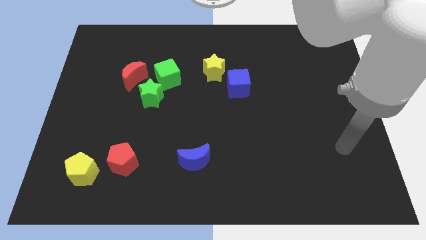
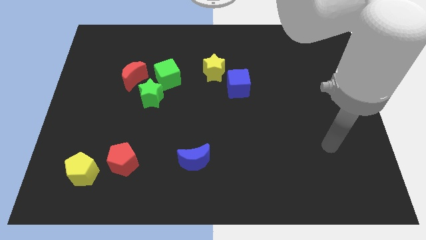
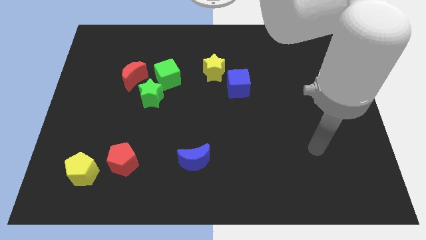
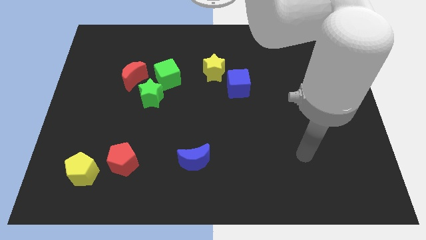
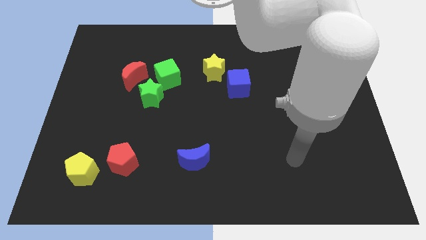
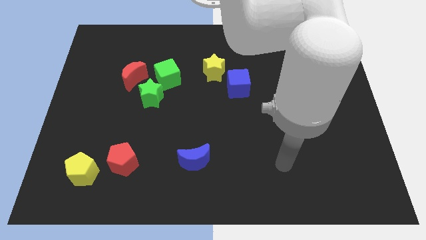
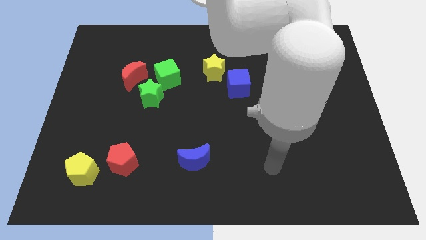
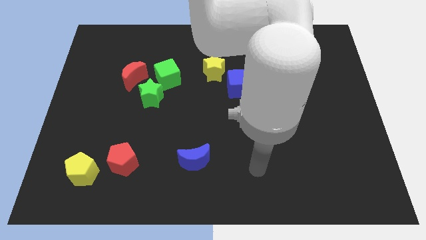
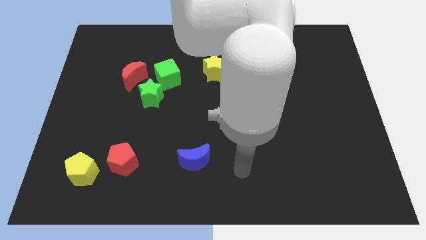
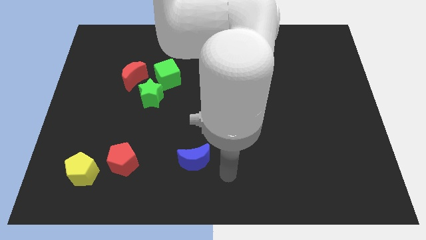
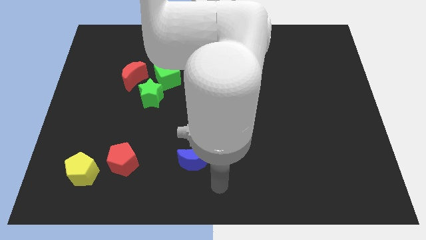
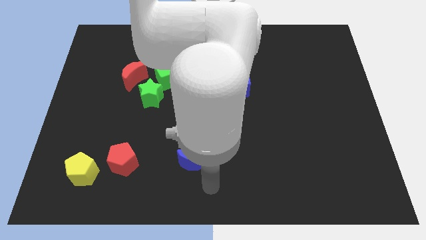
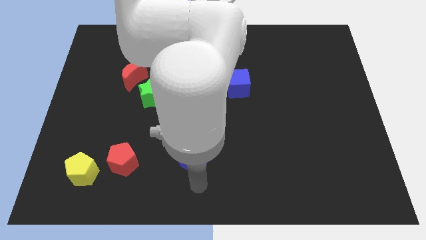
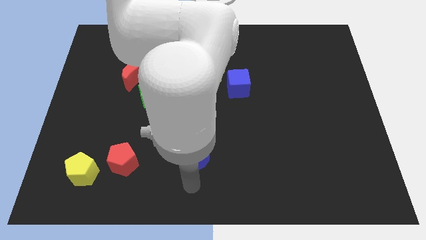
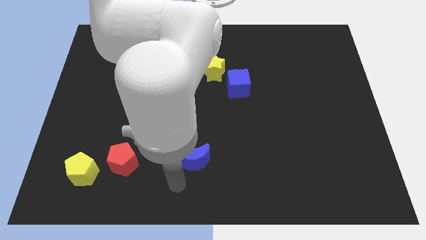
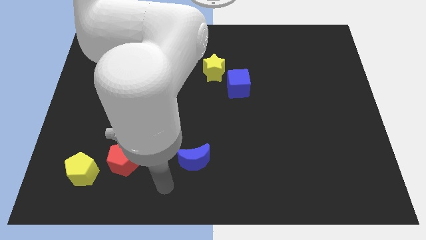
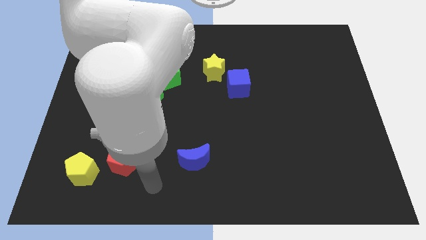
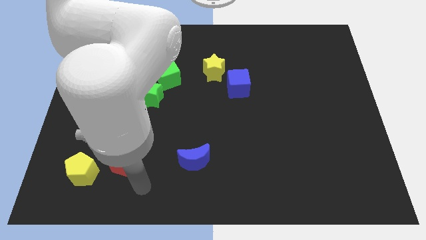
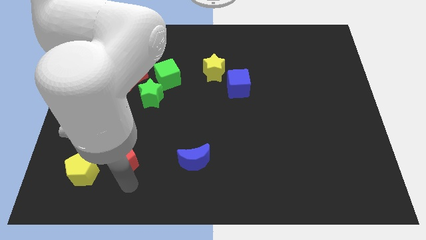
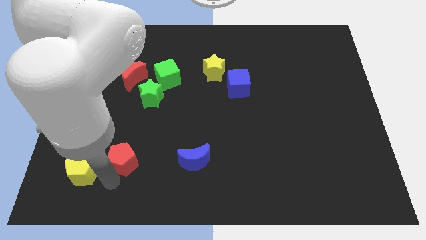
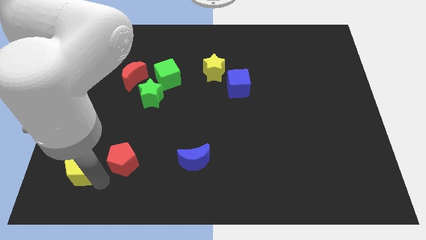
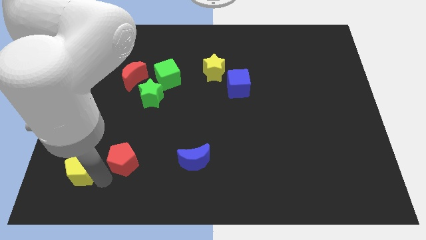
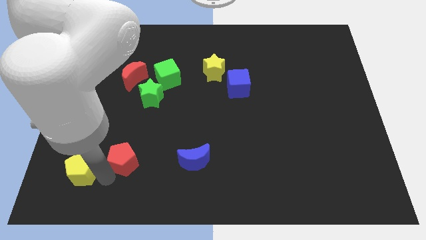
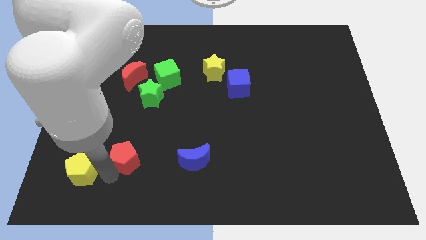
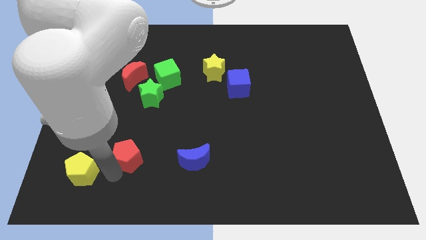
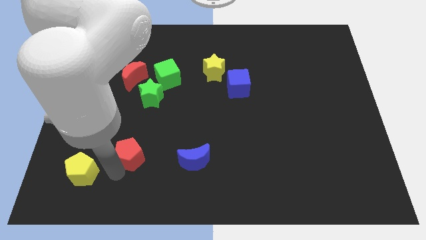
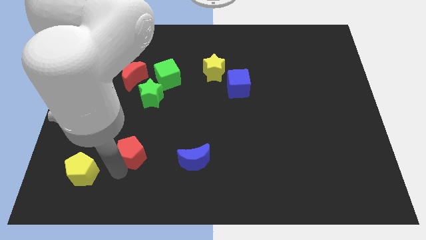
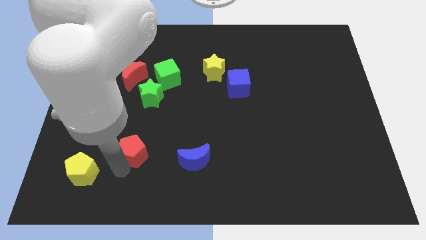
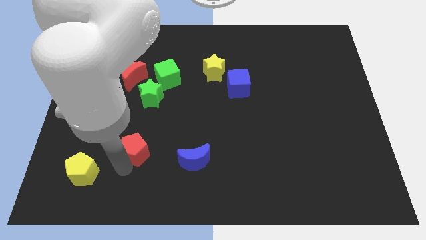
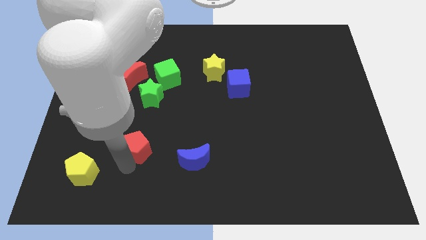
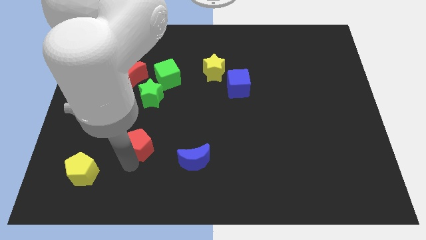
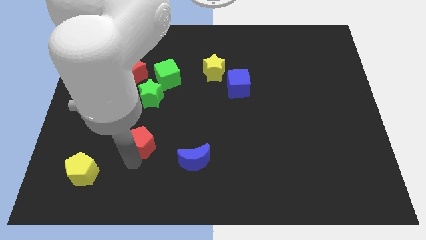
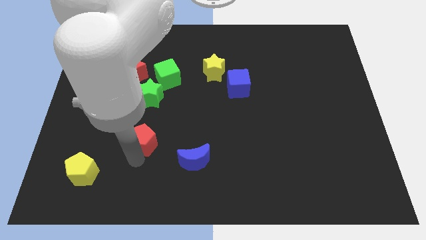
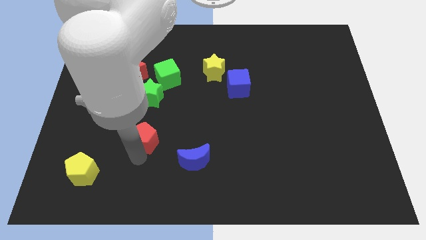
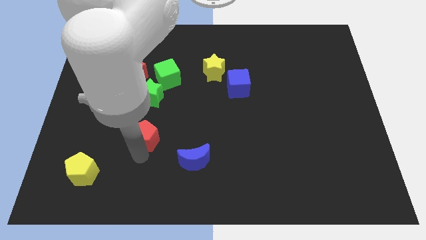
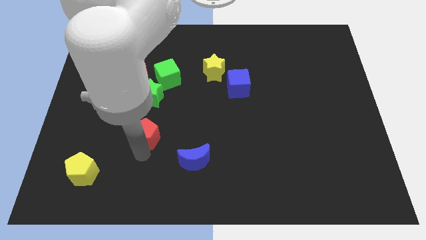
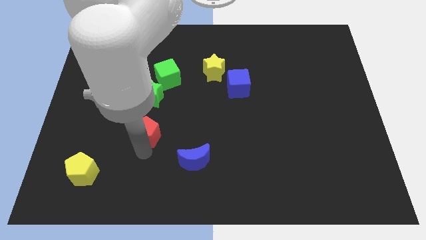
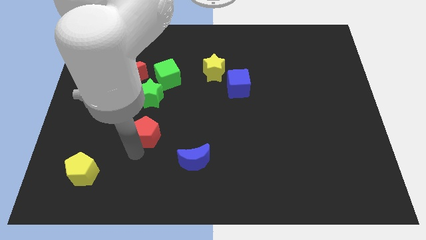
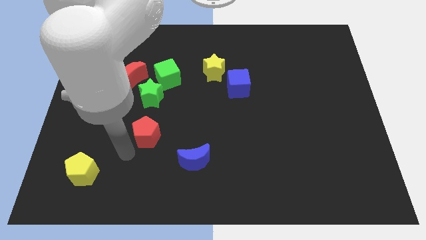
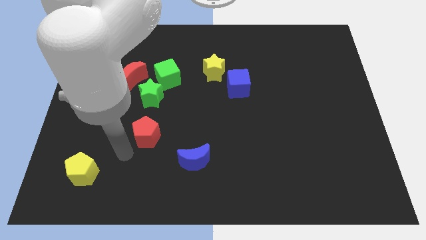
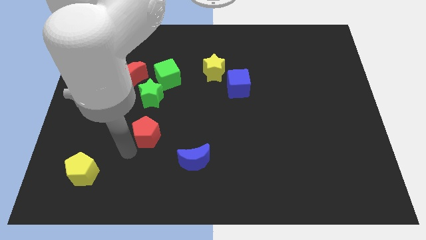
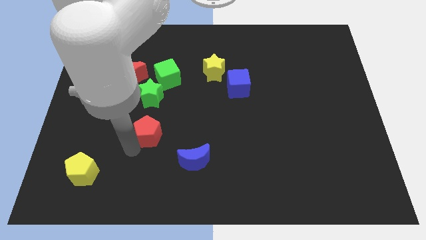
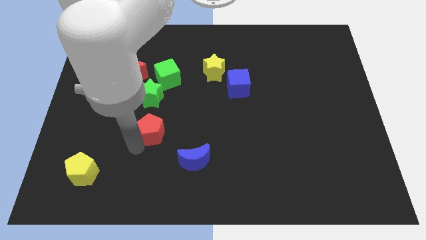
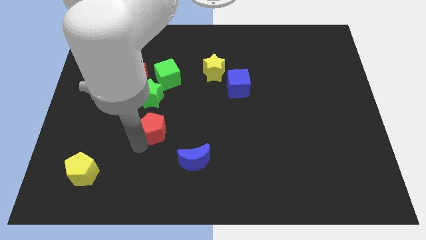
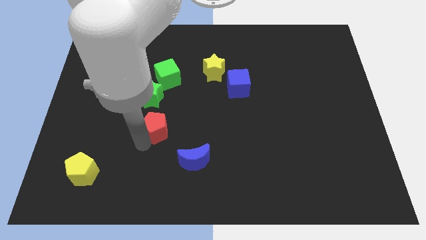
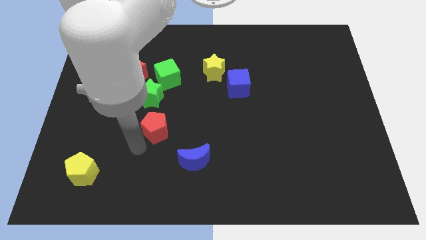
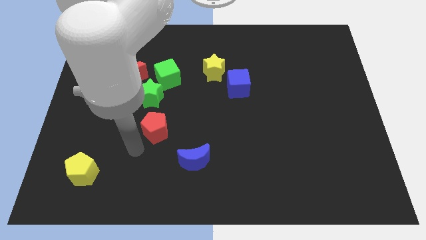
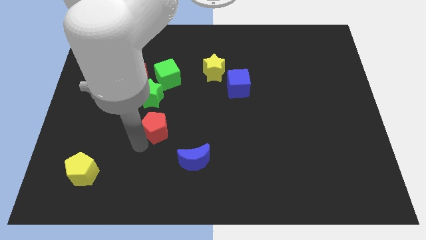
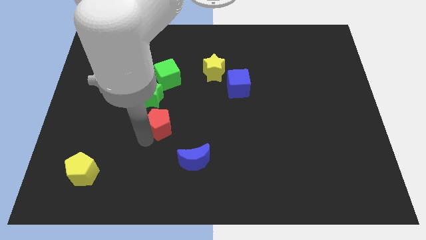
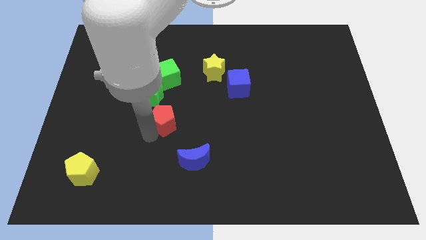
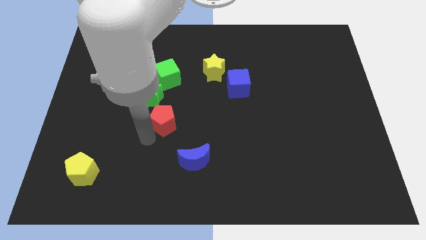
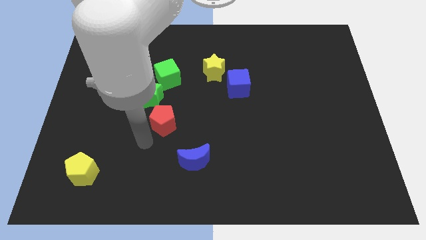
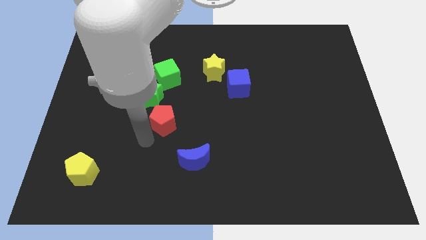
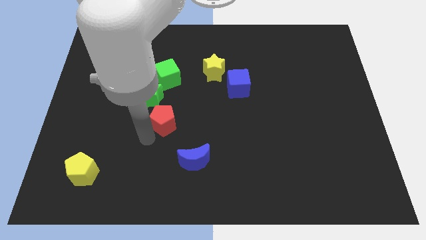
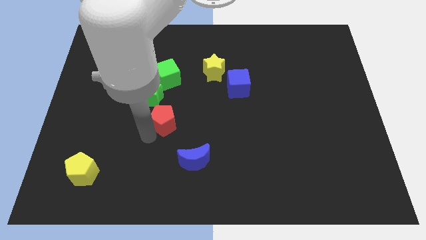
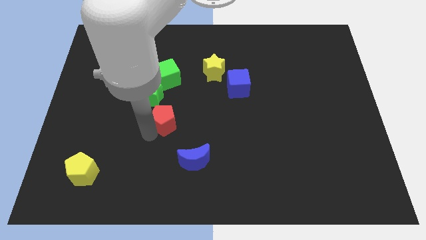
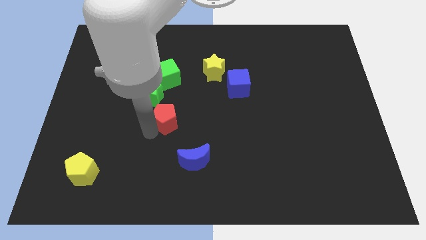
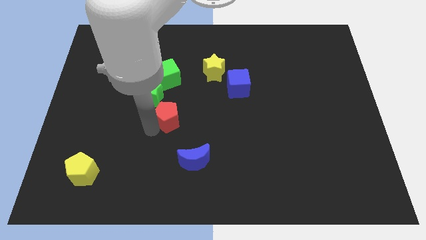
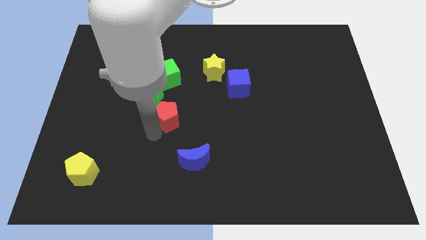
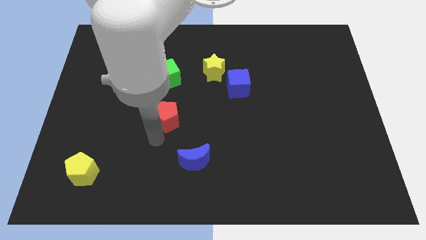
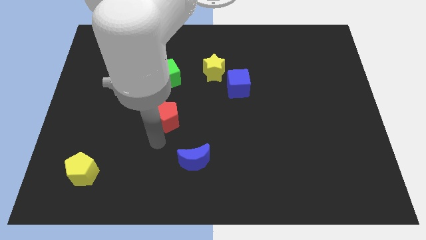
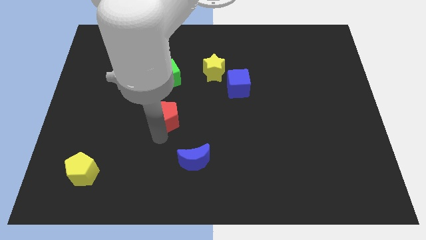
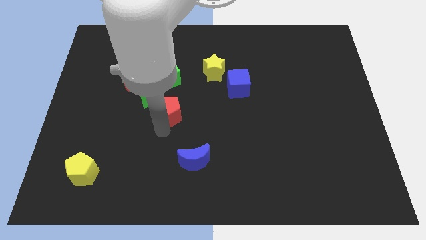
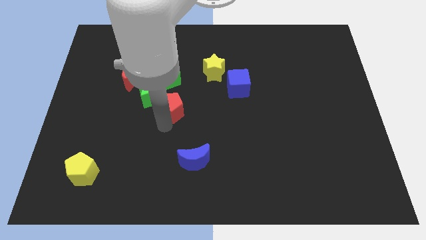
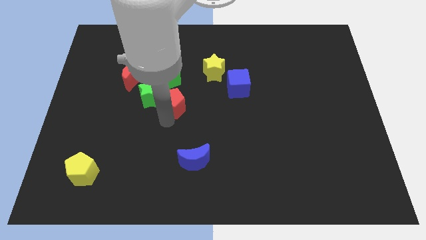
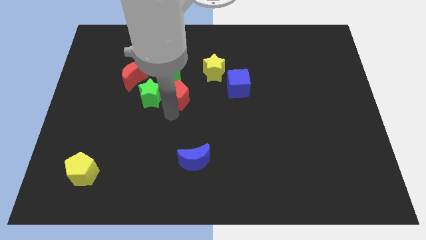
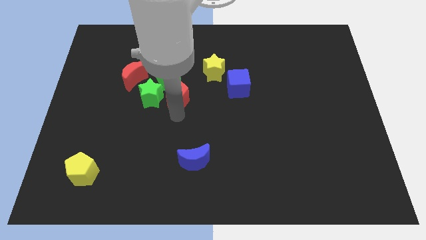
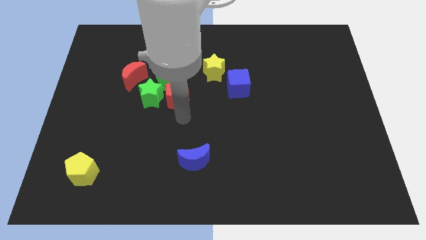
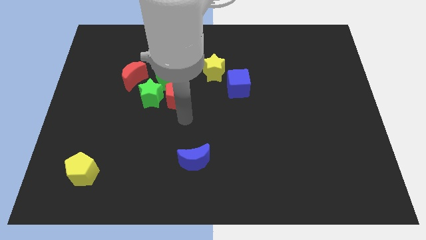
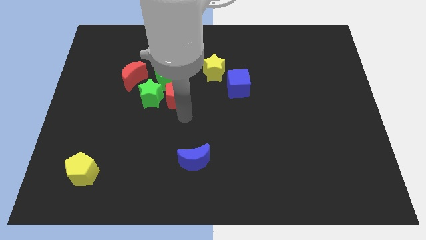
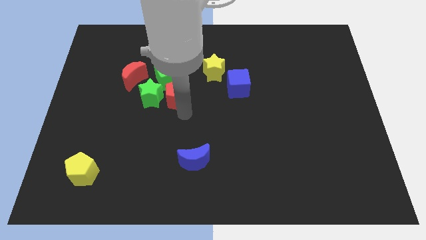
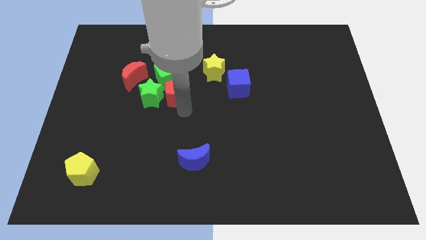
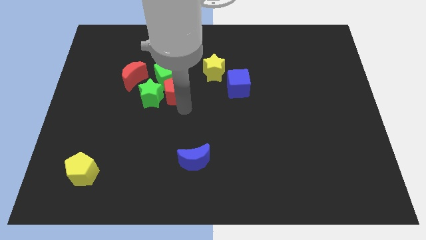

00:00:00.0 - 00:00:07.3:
move the red pentagon towards the green cube

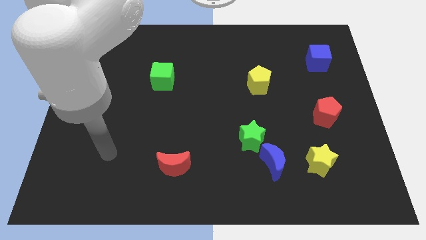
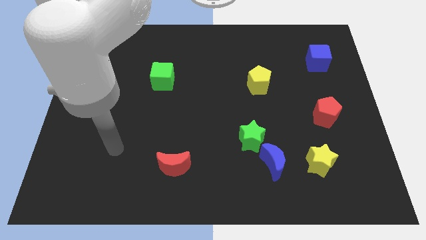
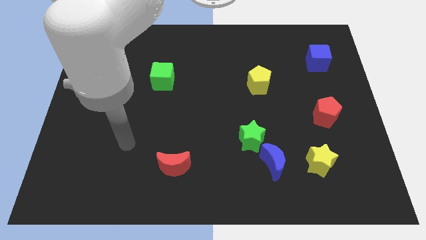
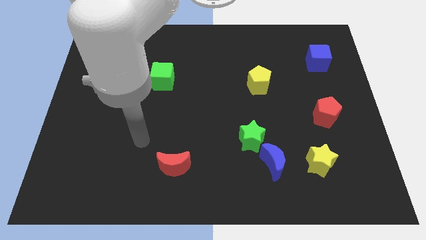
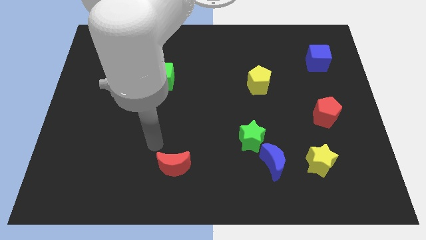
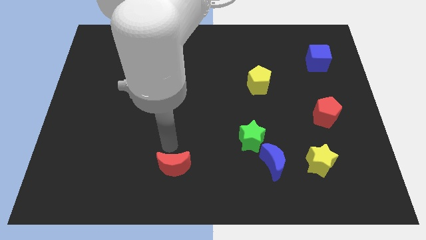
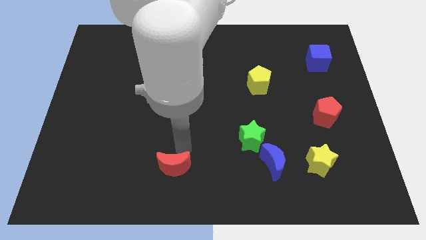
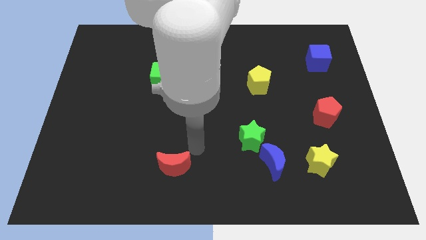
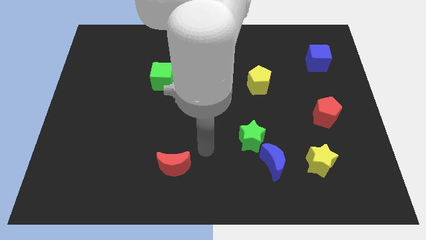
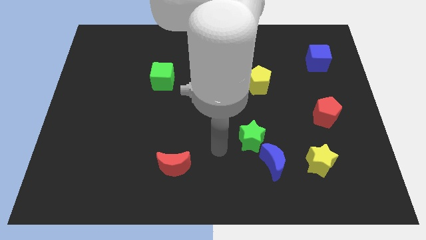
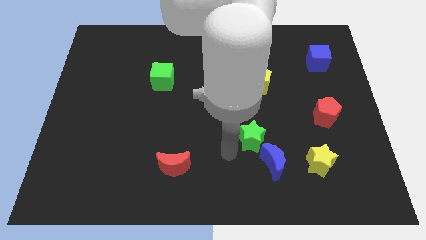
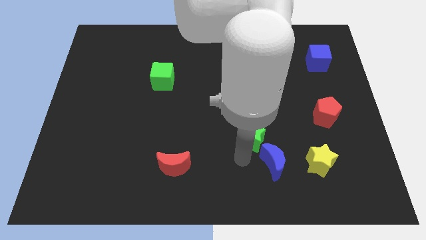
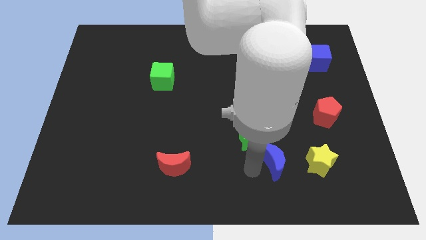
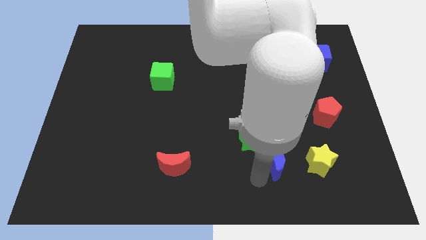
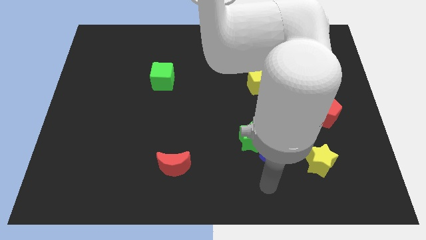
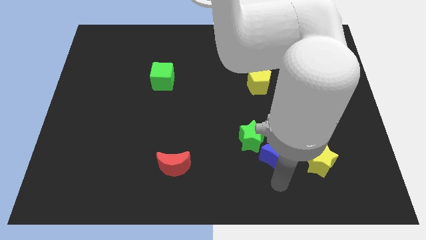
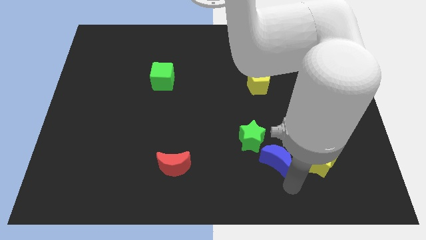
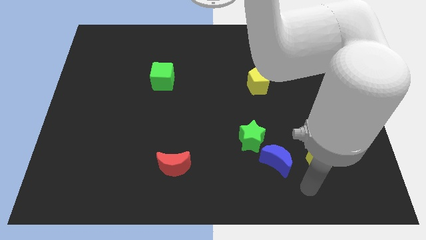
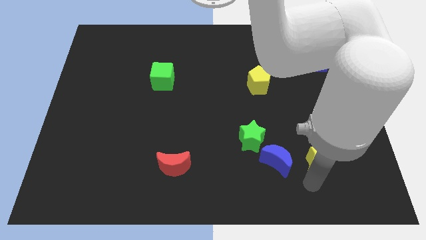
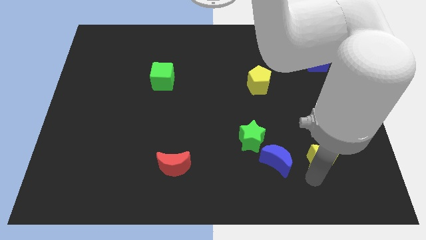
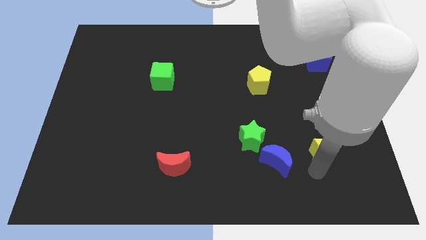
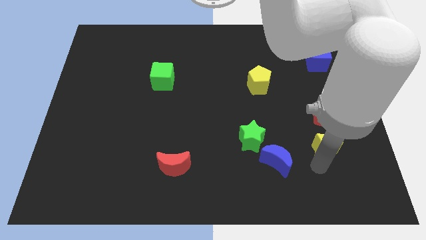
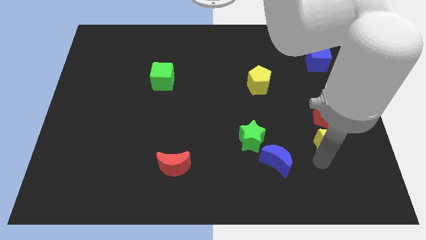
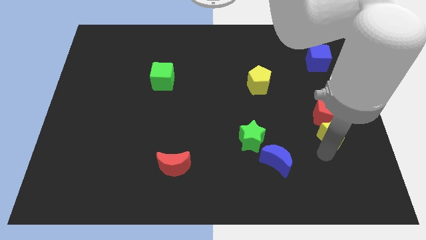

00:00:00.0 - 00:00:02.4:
put the yellow star close to the red pentagon
